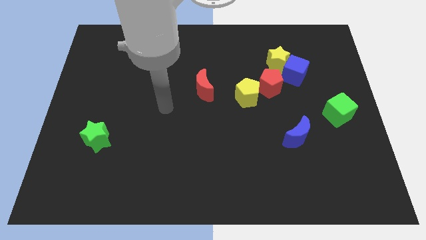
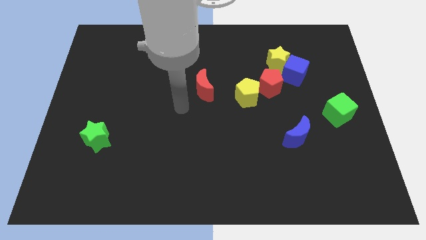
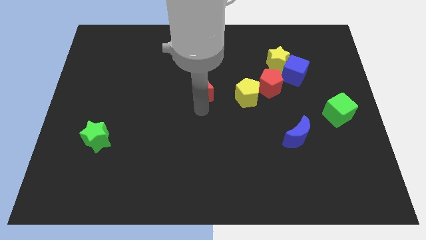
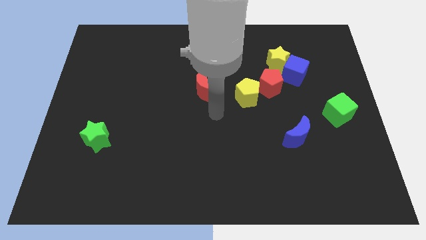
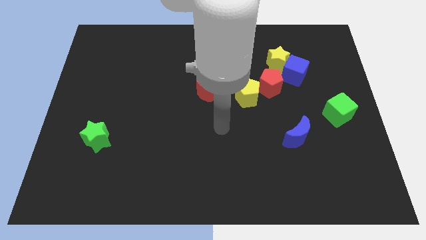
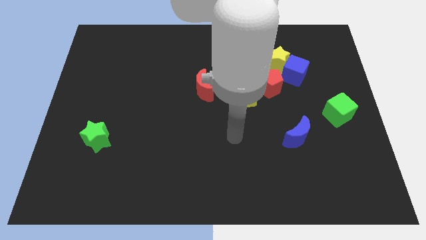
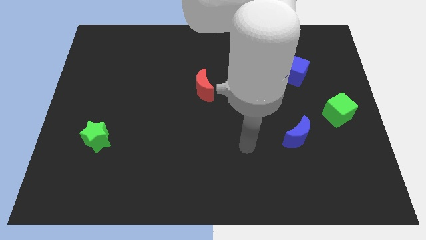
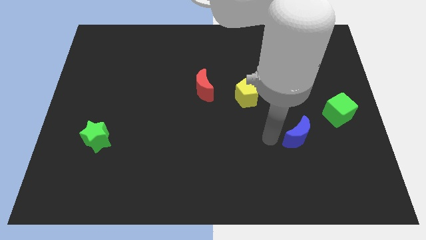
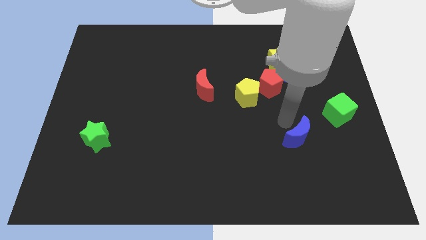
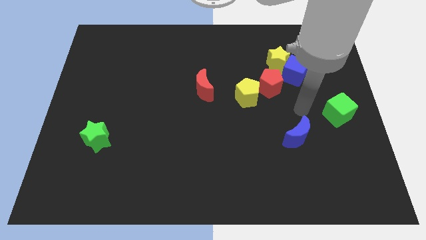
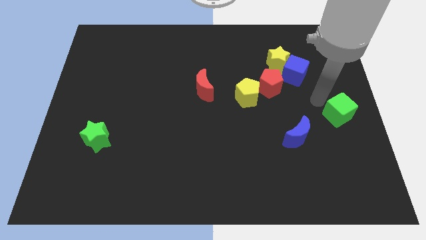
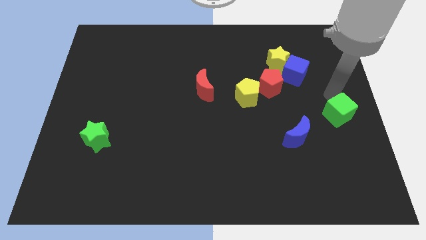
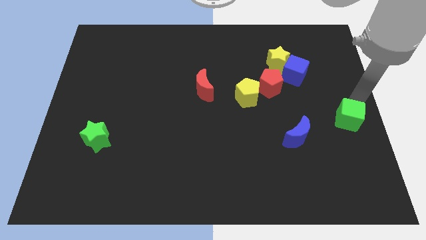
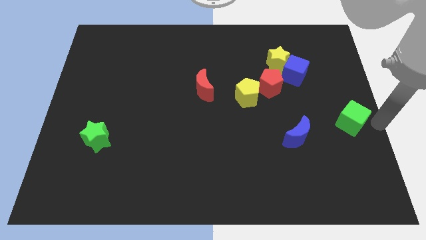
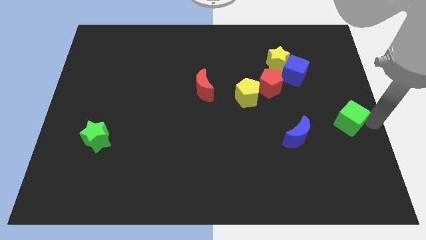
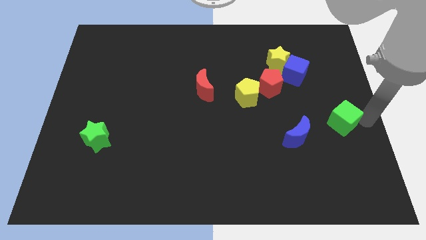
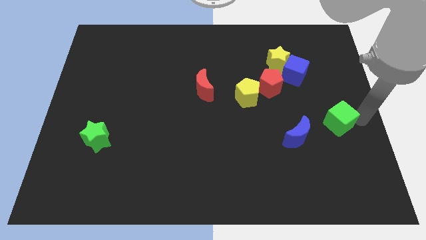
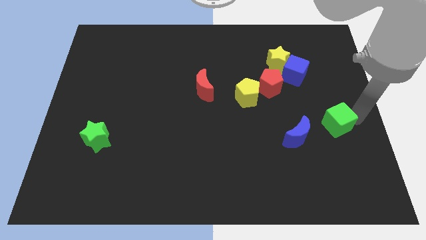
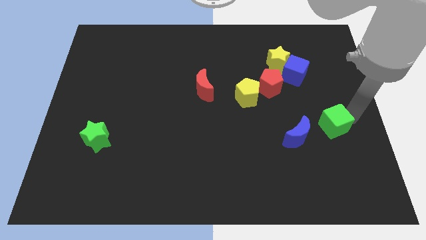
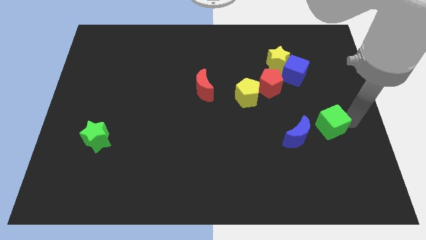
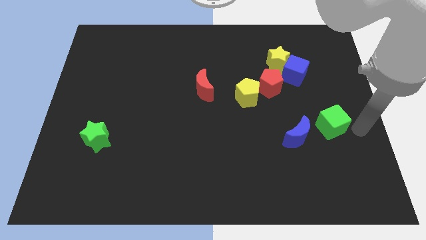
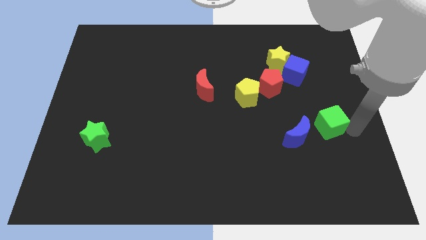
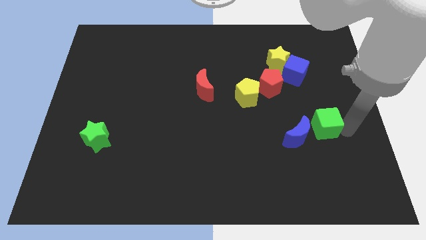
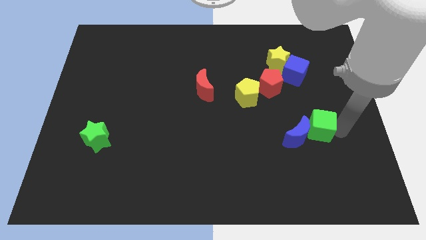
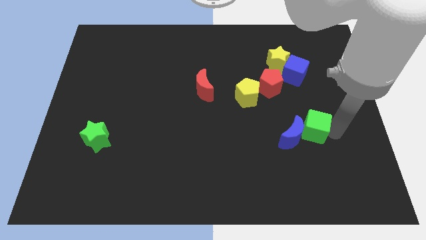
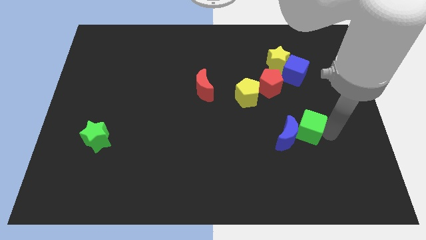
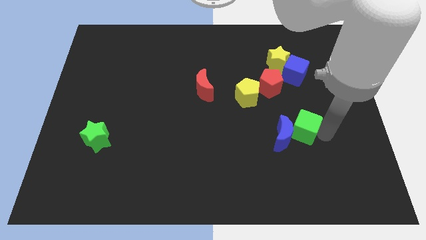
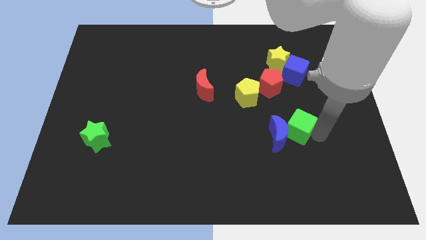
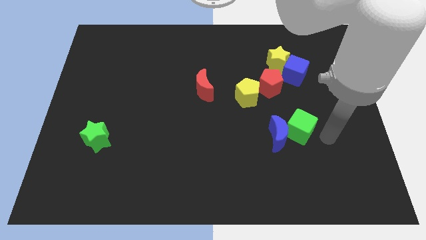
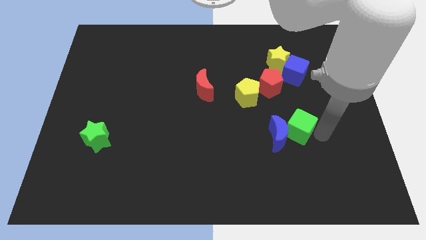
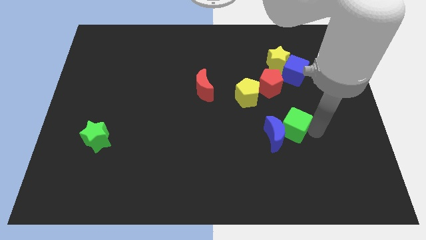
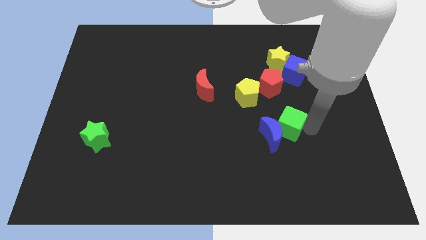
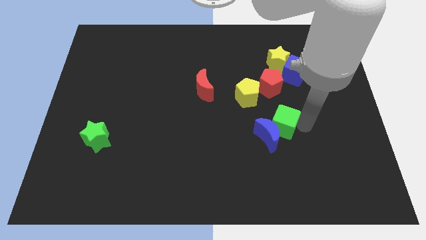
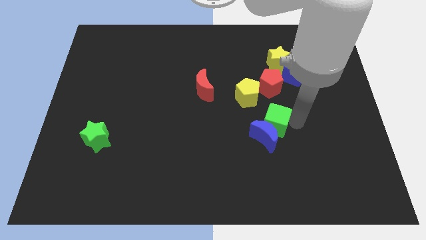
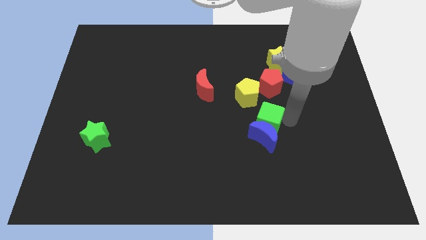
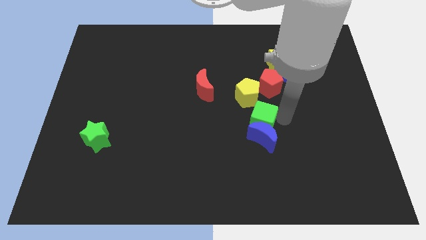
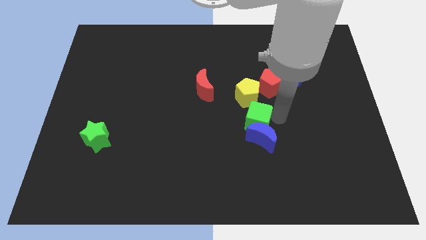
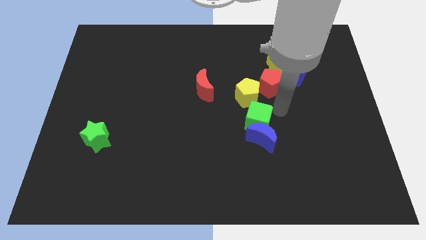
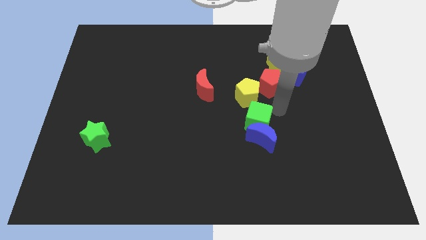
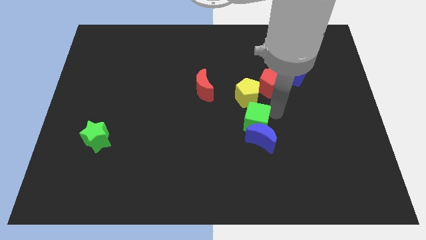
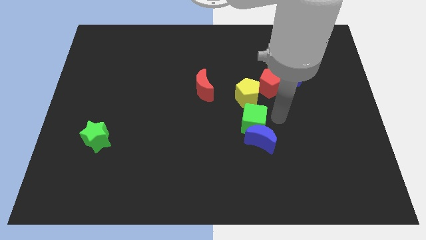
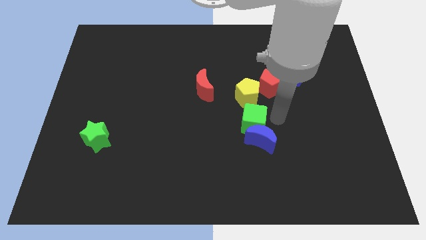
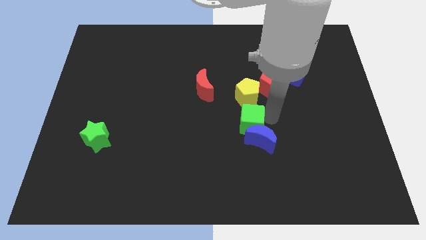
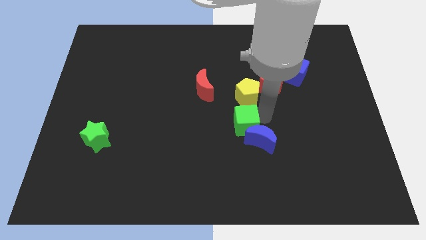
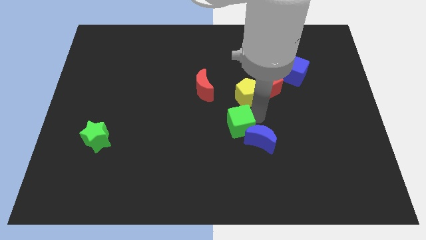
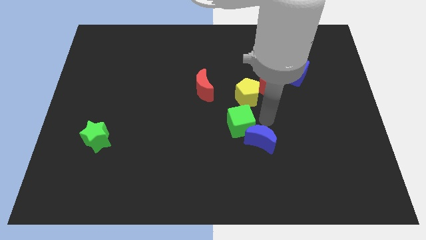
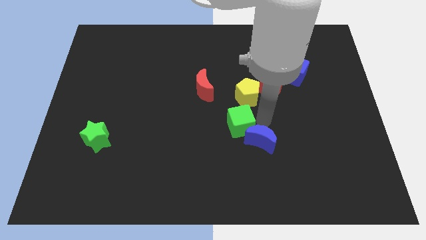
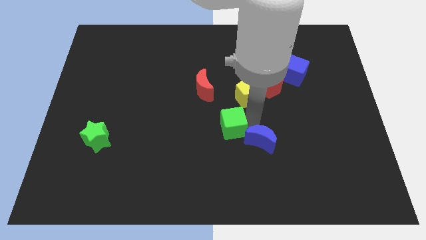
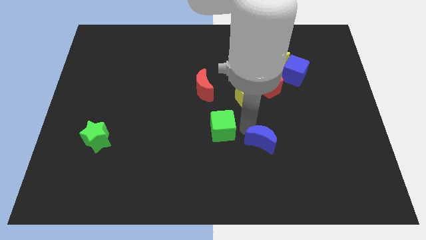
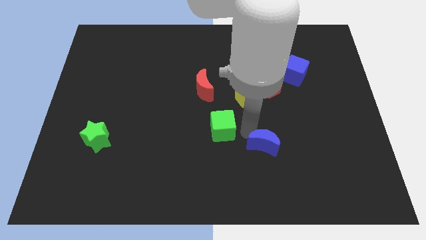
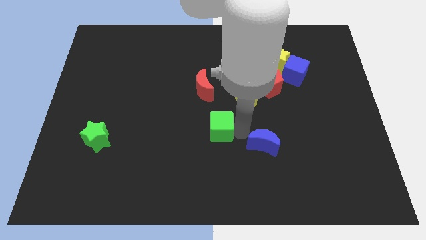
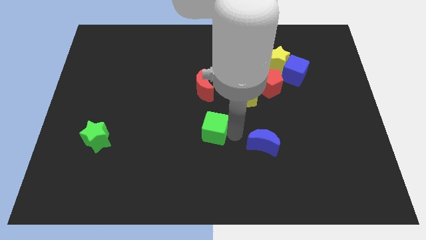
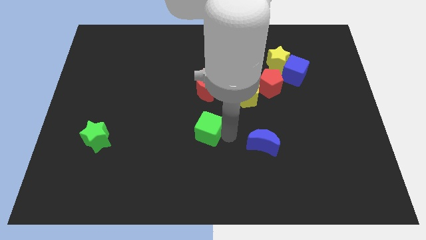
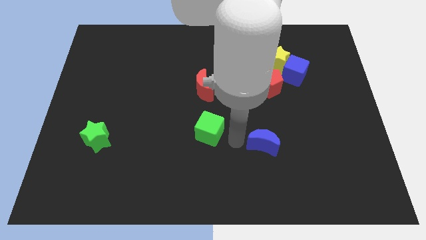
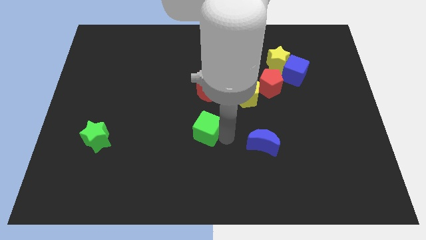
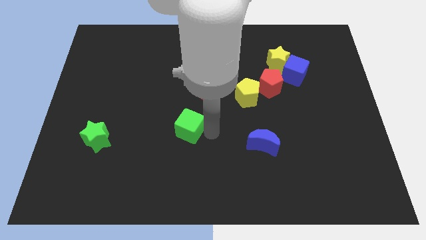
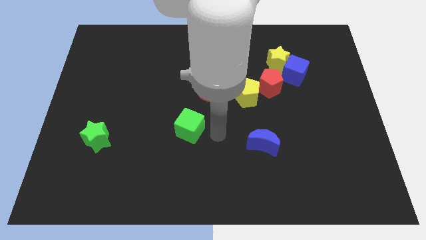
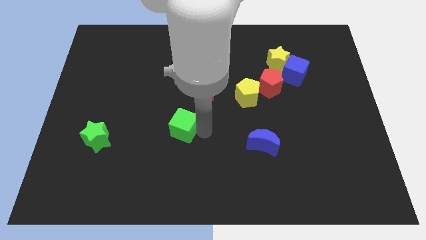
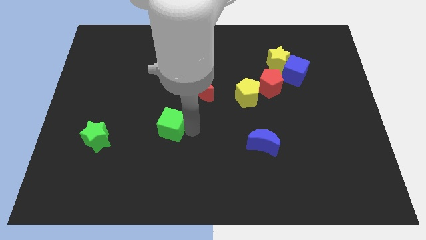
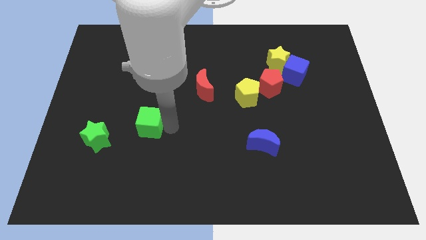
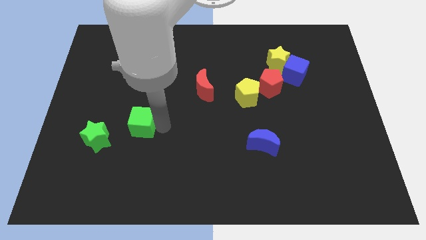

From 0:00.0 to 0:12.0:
move the green cube diagonally up and to the right of the green star
